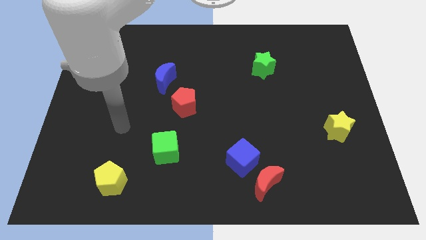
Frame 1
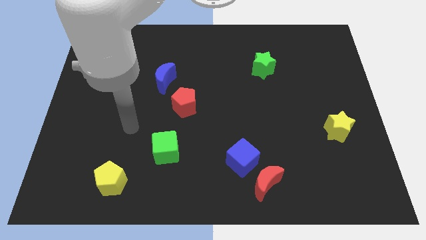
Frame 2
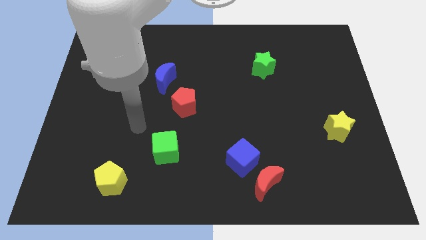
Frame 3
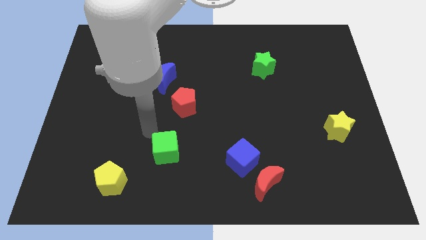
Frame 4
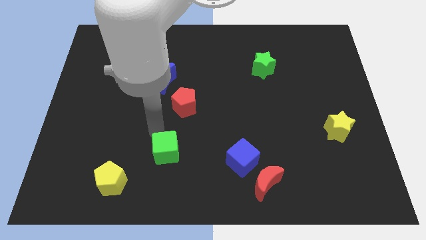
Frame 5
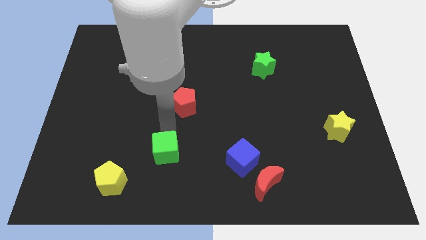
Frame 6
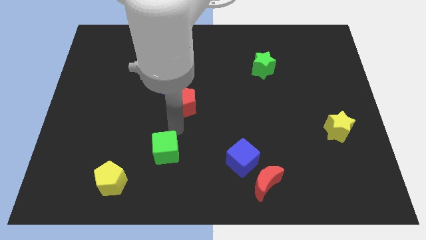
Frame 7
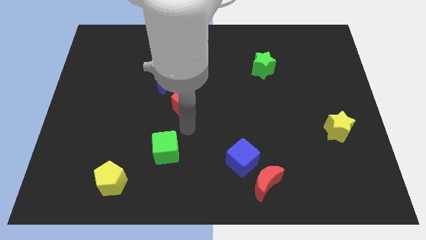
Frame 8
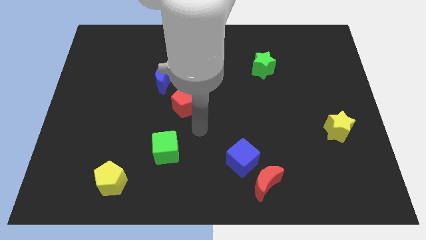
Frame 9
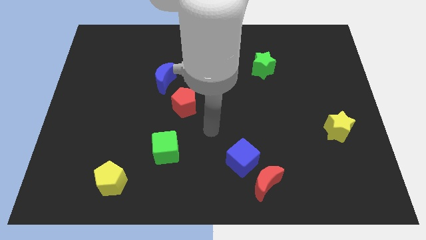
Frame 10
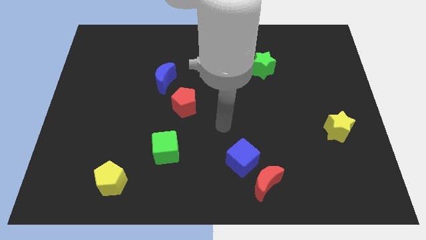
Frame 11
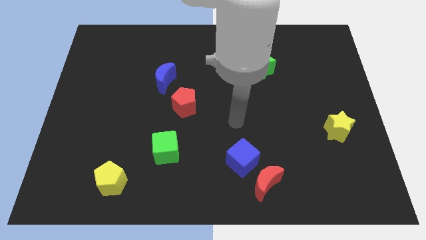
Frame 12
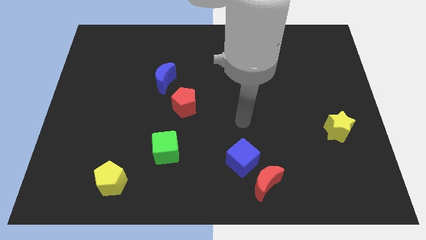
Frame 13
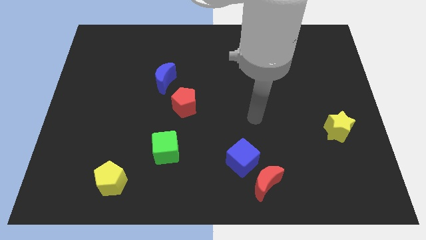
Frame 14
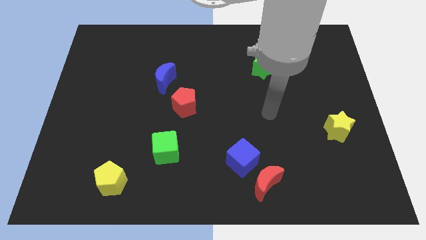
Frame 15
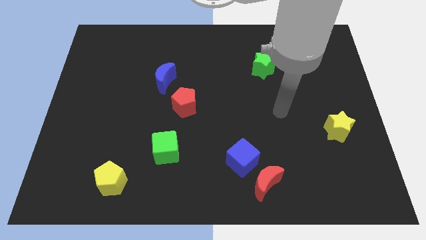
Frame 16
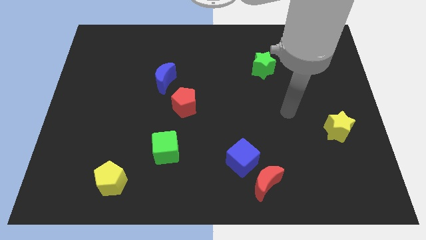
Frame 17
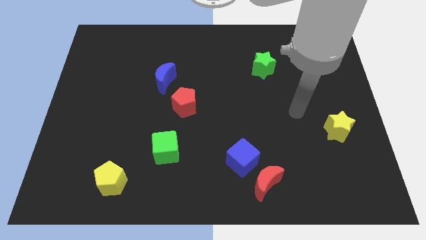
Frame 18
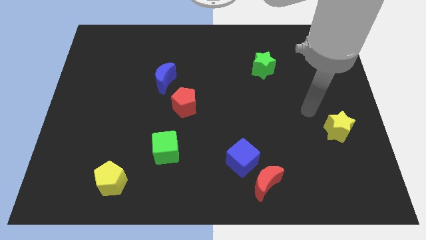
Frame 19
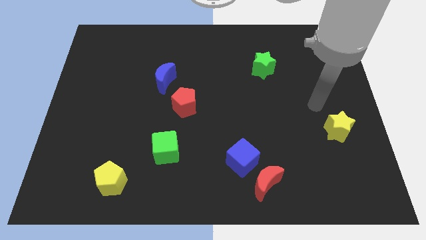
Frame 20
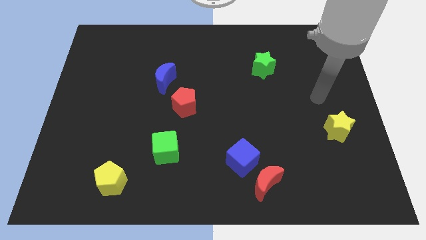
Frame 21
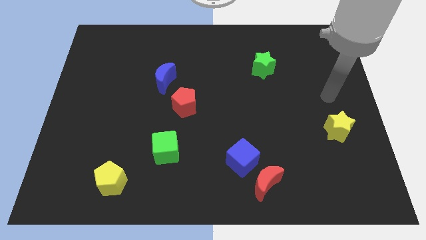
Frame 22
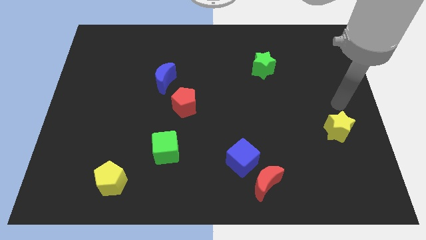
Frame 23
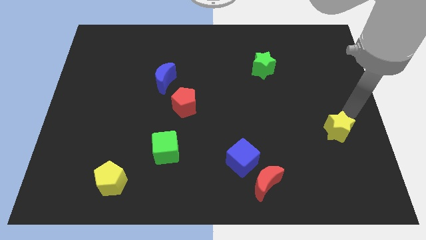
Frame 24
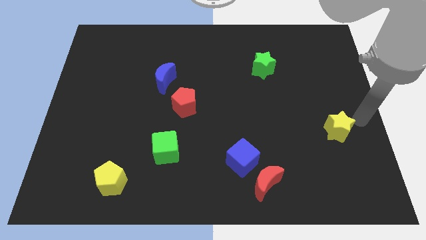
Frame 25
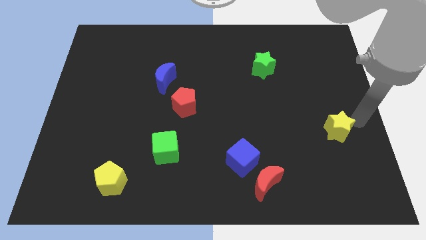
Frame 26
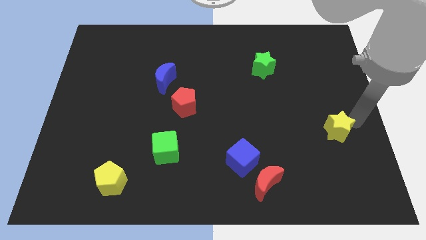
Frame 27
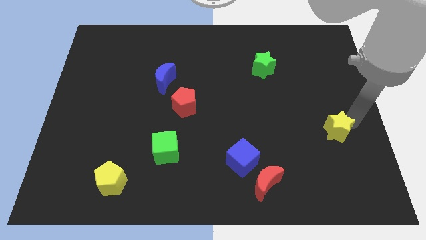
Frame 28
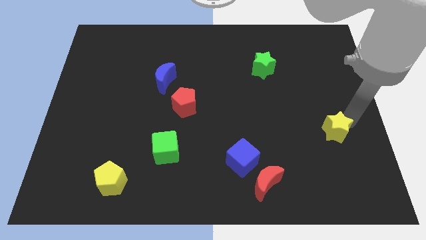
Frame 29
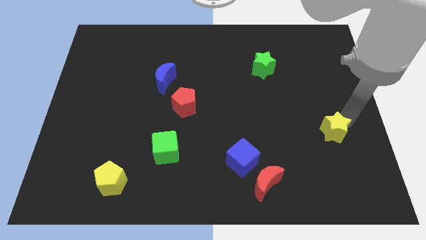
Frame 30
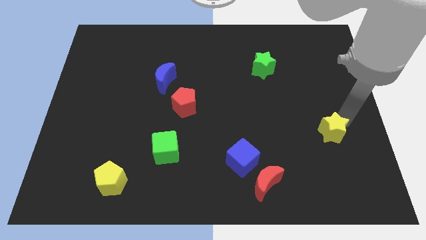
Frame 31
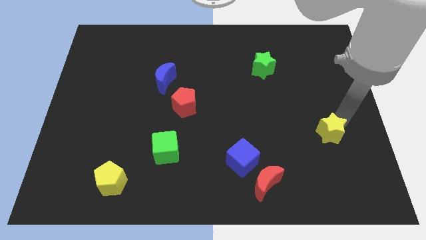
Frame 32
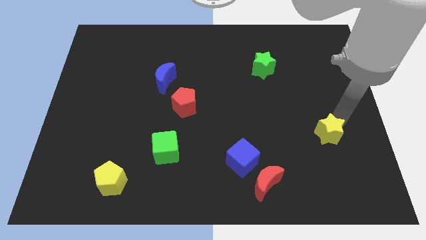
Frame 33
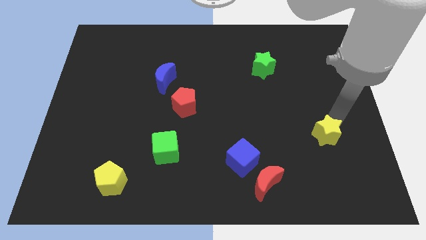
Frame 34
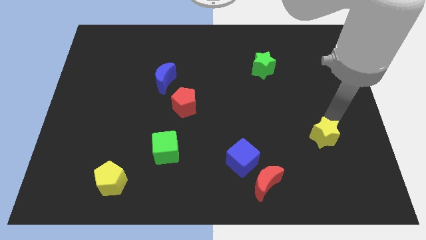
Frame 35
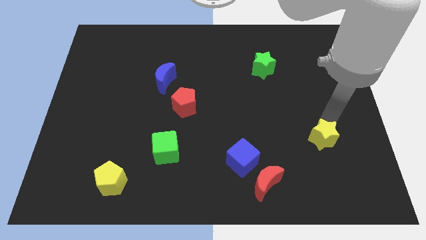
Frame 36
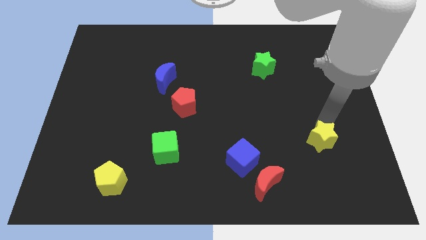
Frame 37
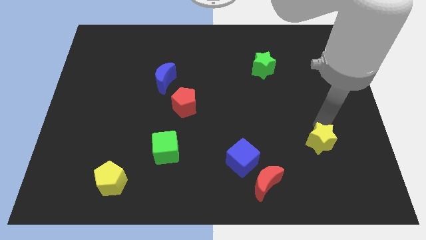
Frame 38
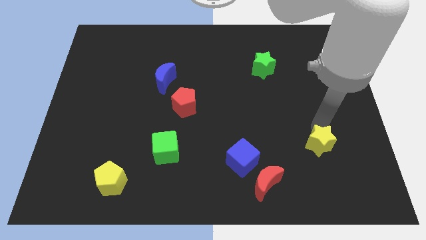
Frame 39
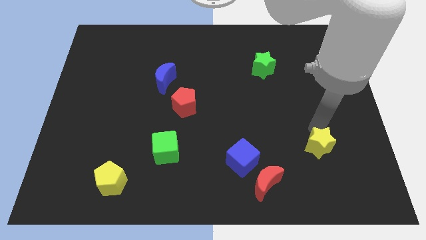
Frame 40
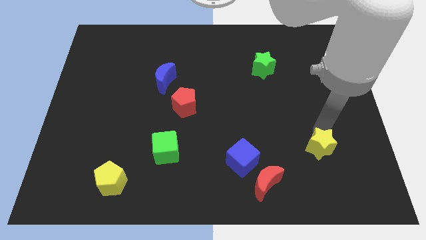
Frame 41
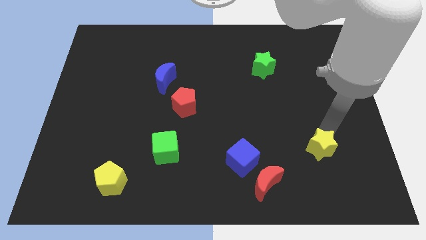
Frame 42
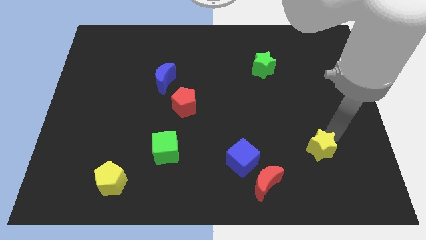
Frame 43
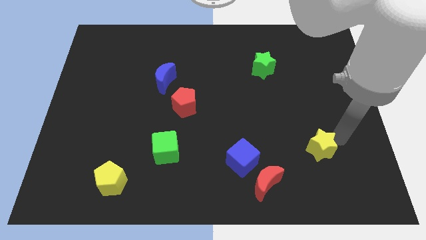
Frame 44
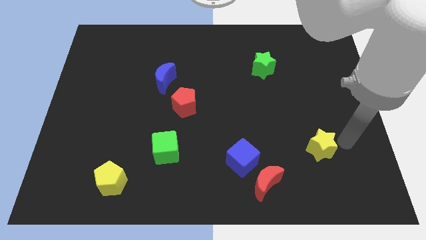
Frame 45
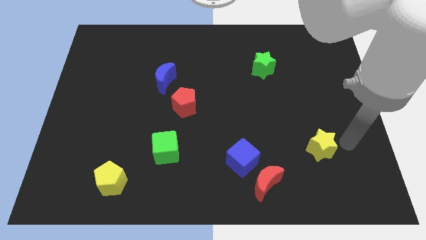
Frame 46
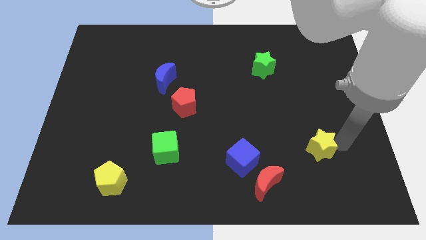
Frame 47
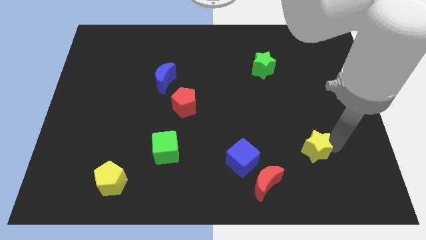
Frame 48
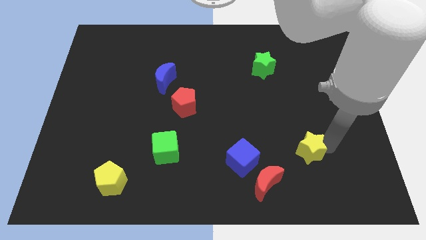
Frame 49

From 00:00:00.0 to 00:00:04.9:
push the yellow star diagonally up and to the right of the red moon

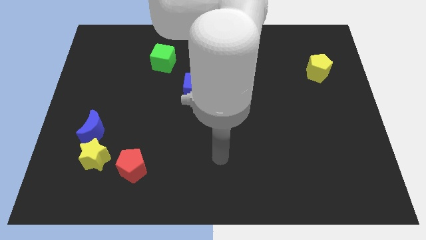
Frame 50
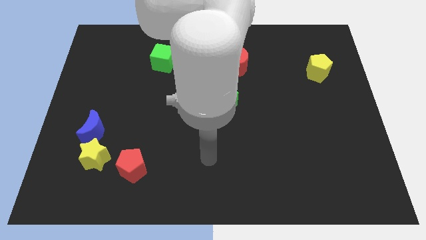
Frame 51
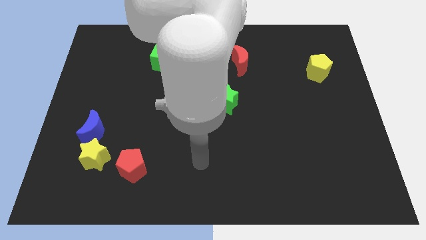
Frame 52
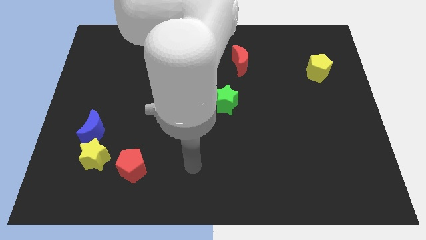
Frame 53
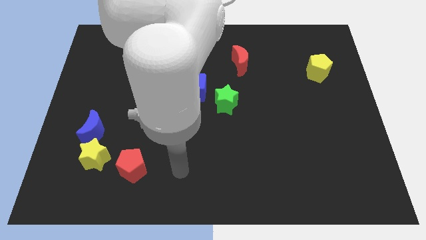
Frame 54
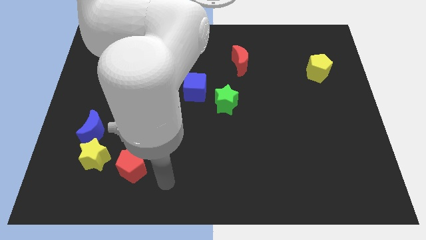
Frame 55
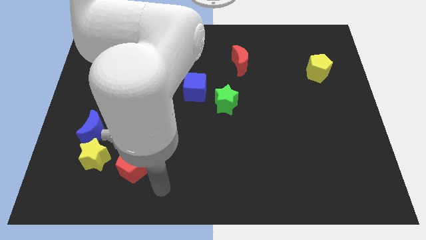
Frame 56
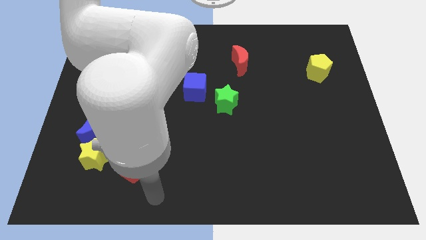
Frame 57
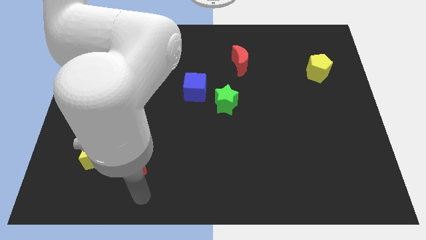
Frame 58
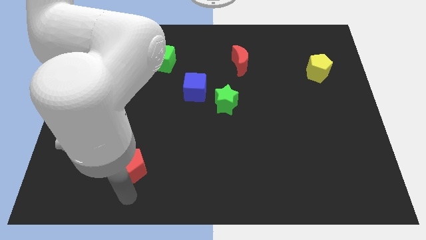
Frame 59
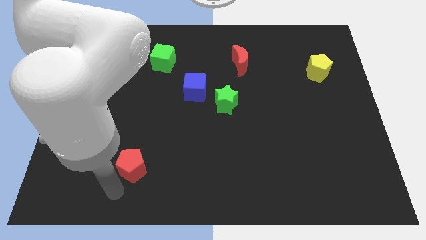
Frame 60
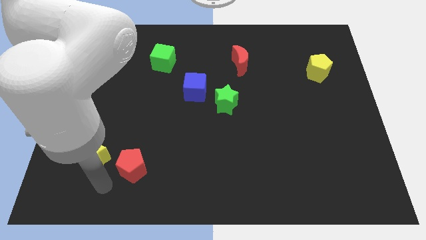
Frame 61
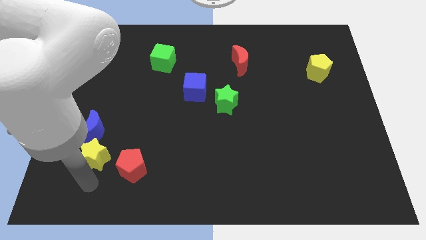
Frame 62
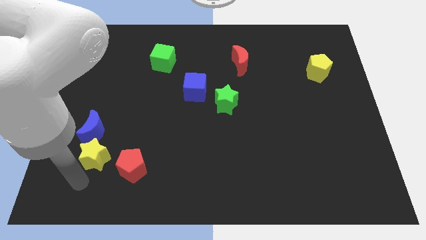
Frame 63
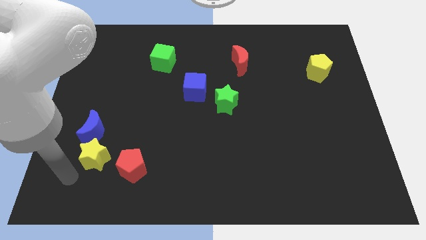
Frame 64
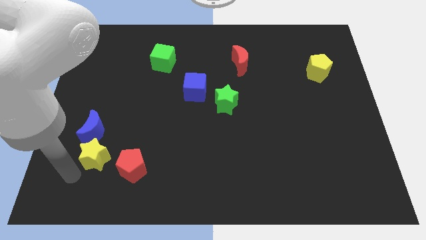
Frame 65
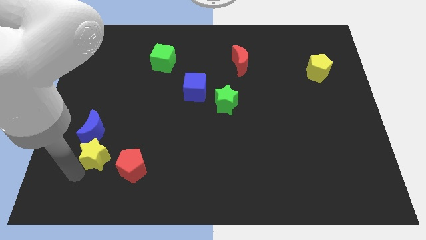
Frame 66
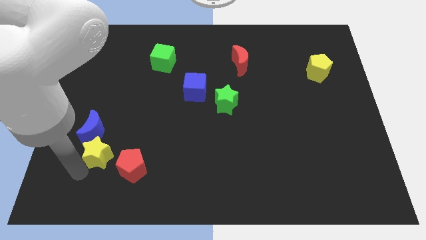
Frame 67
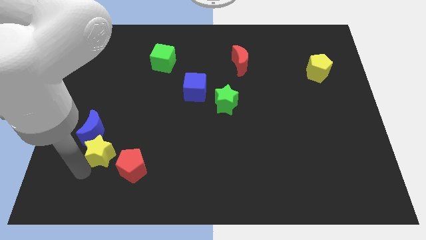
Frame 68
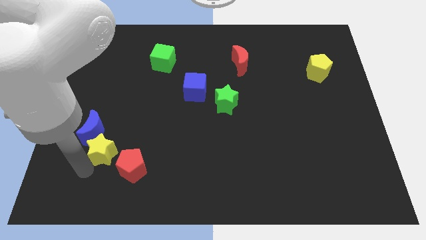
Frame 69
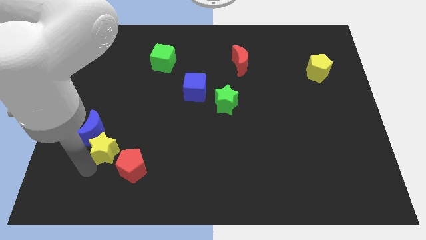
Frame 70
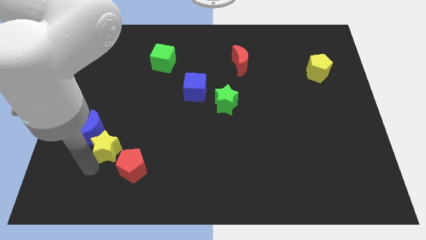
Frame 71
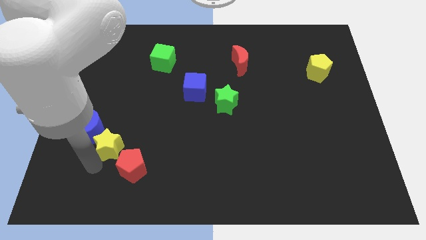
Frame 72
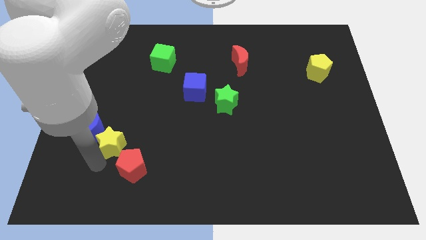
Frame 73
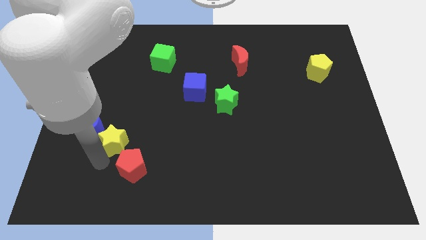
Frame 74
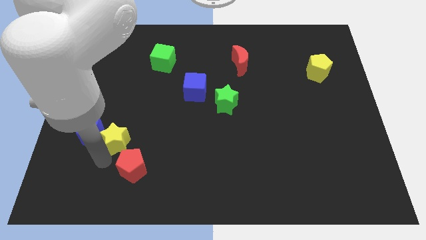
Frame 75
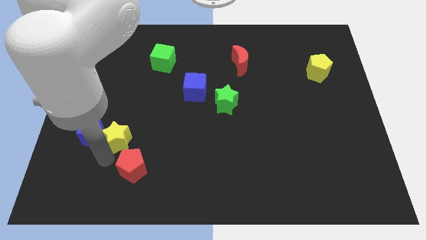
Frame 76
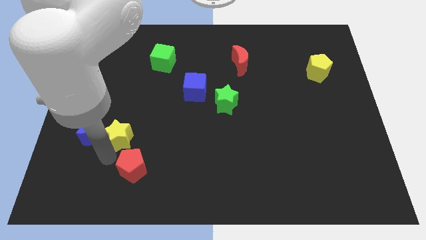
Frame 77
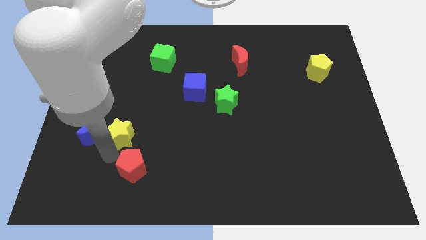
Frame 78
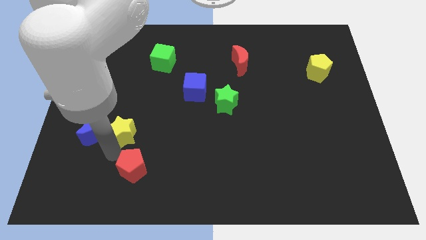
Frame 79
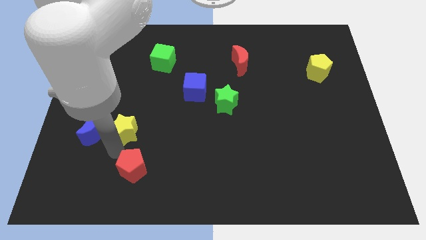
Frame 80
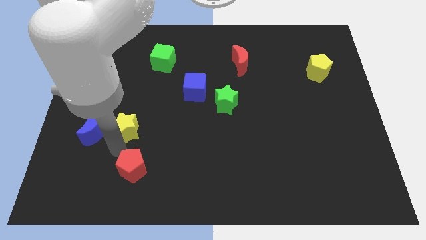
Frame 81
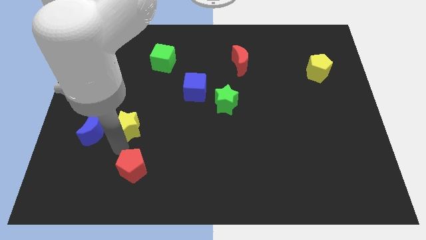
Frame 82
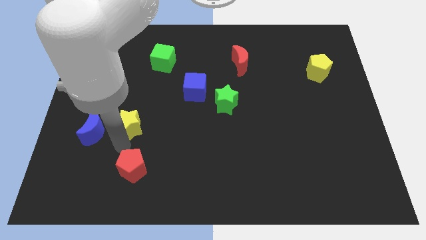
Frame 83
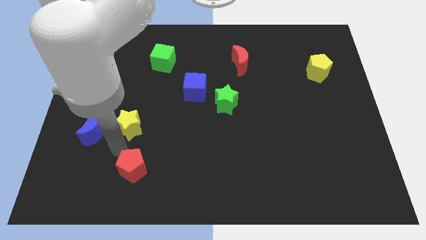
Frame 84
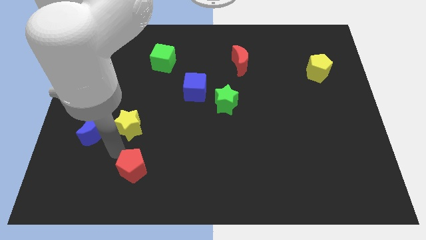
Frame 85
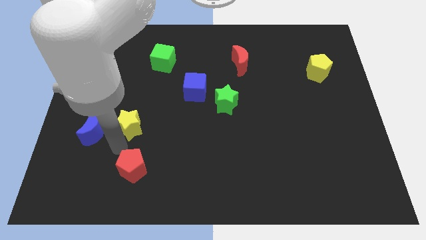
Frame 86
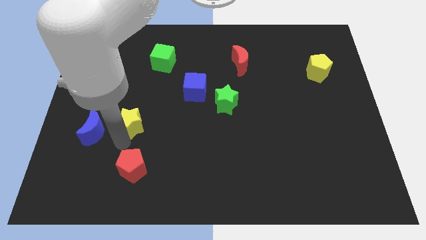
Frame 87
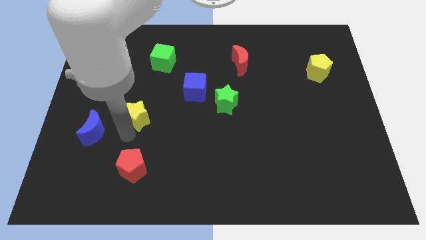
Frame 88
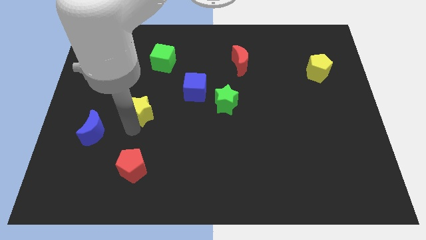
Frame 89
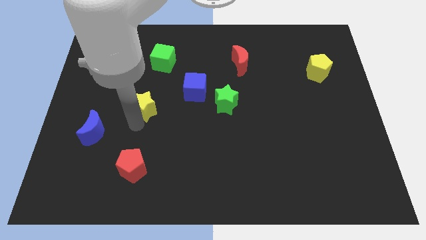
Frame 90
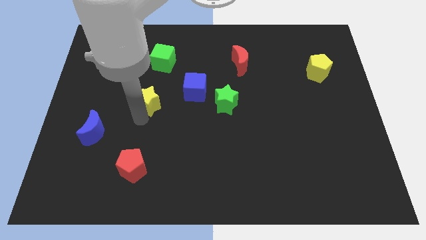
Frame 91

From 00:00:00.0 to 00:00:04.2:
put the yellow star just left of the blue cube
